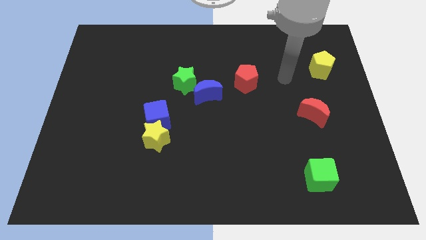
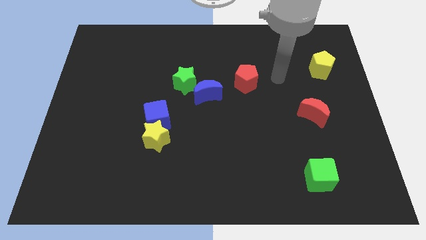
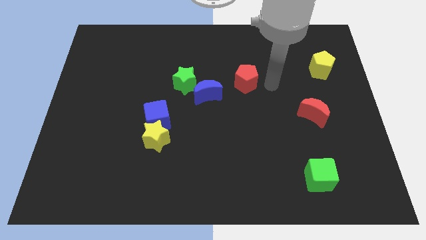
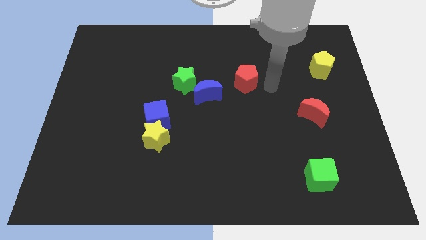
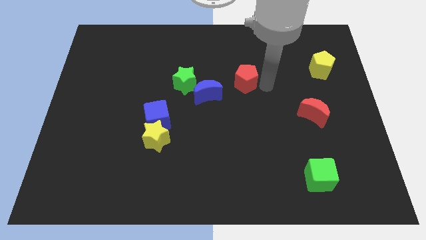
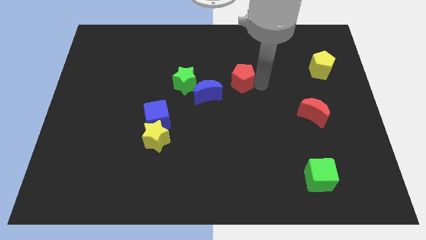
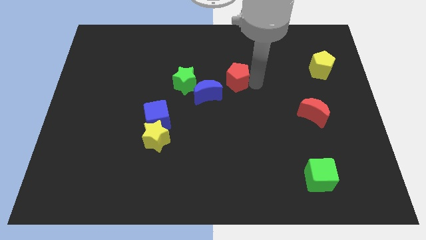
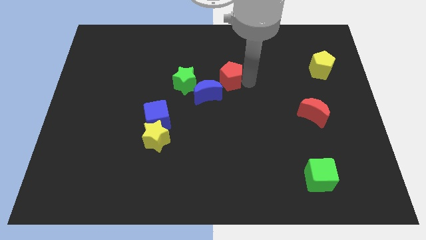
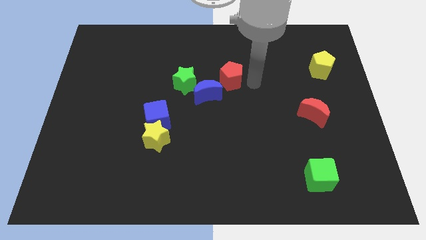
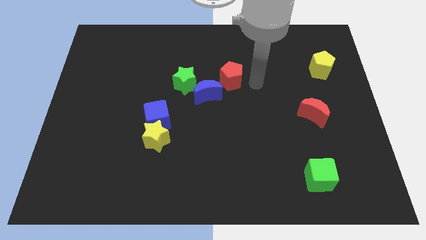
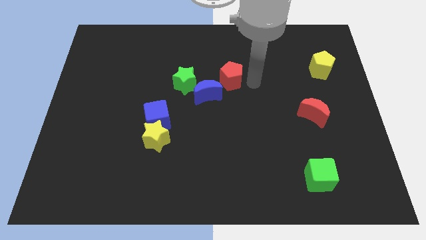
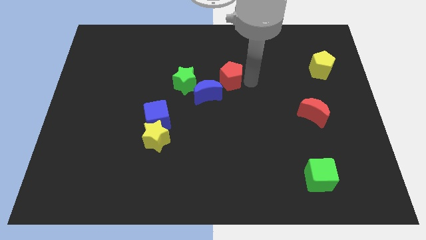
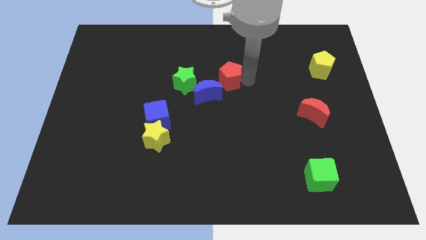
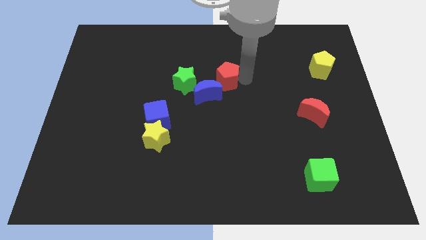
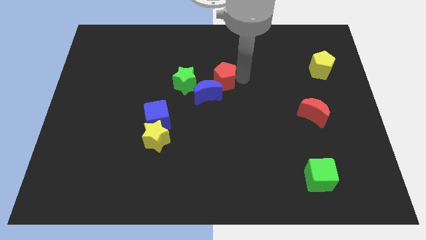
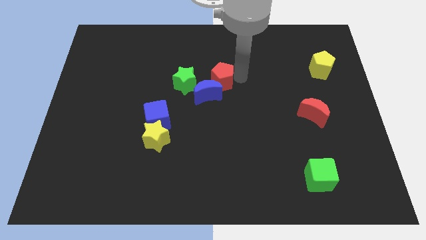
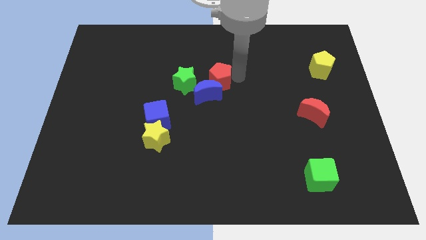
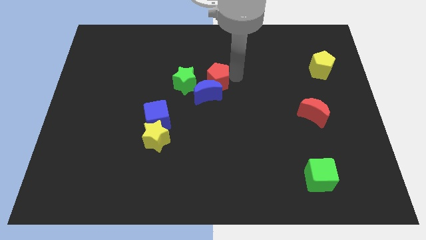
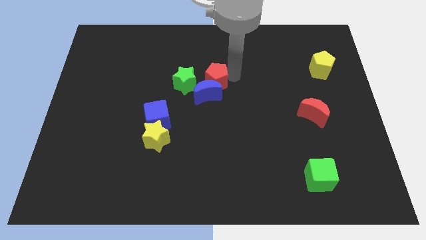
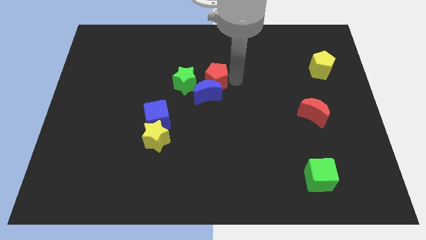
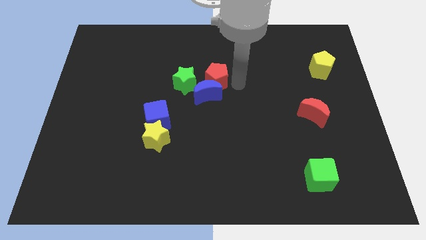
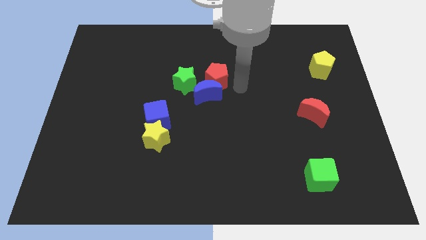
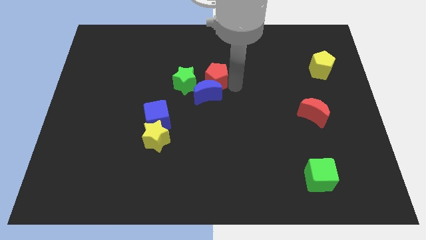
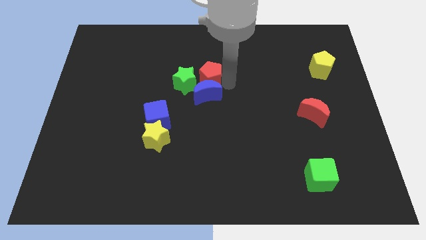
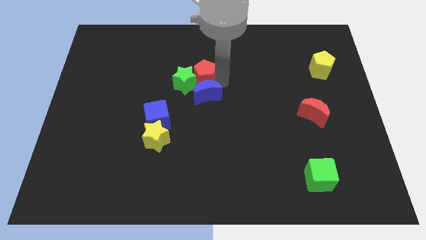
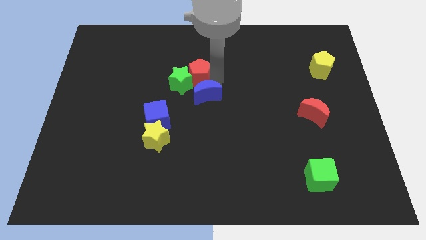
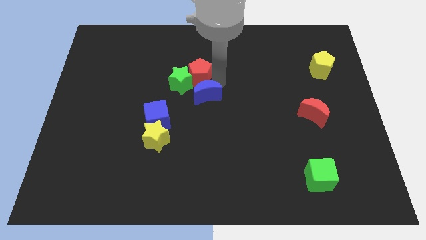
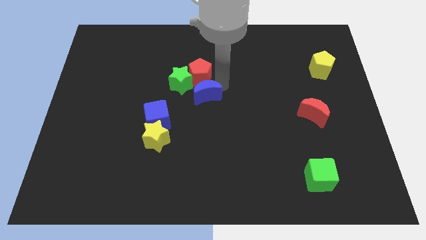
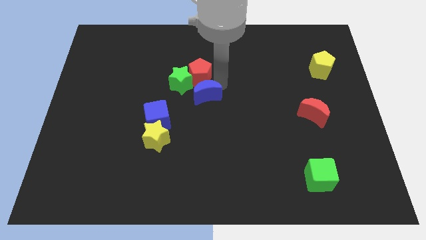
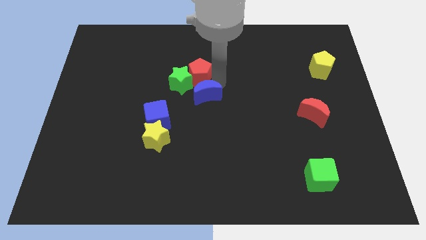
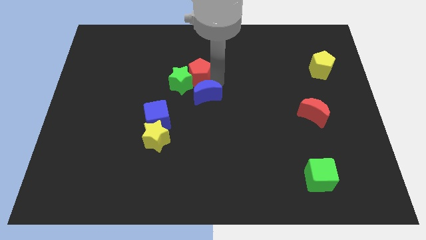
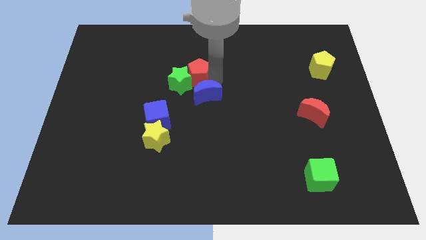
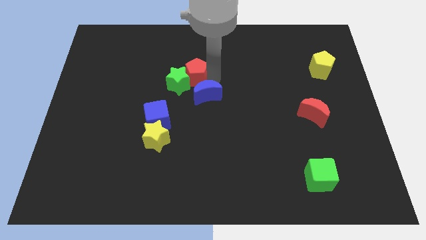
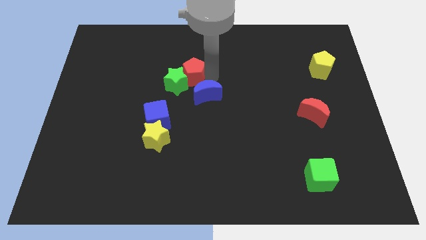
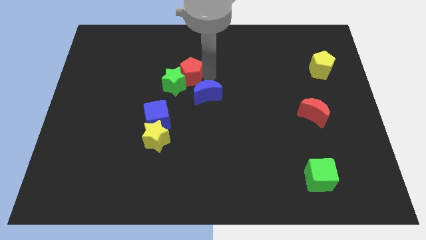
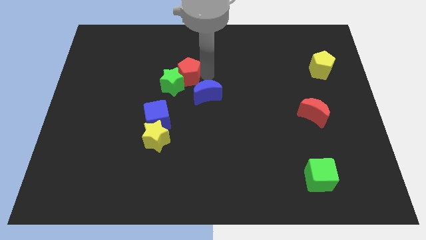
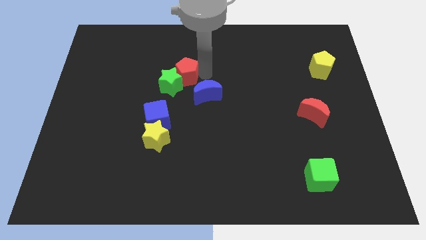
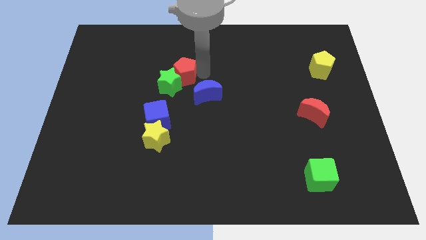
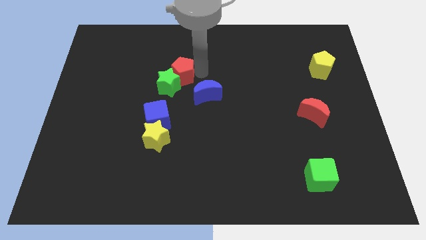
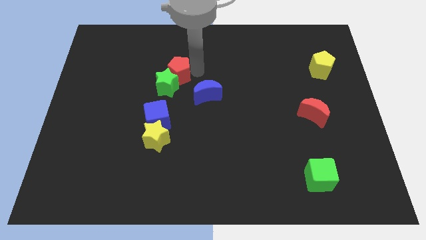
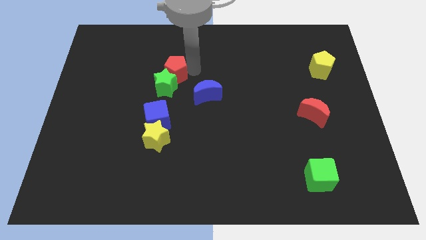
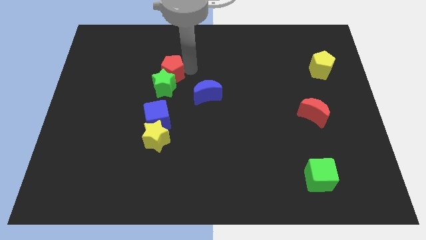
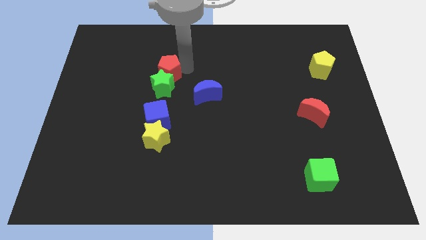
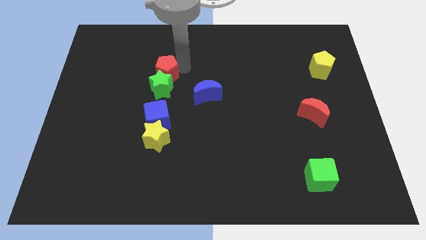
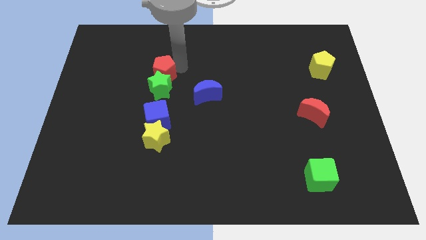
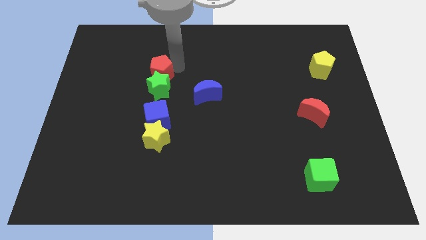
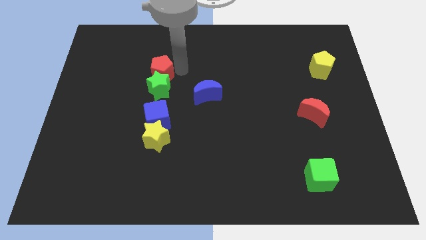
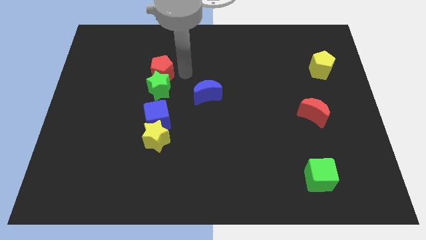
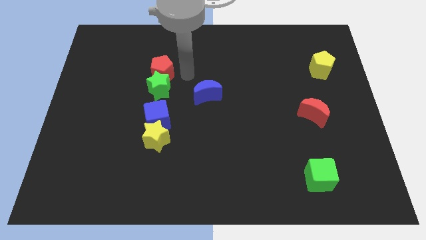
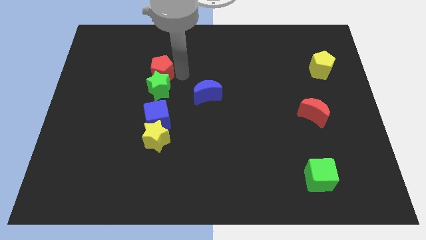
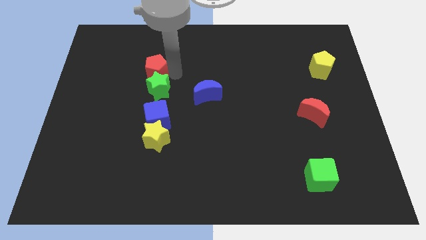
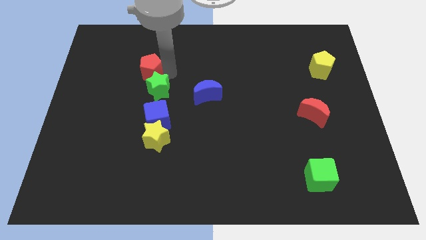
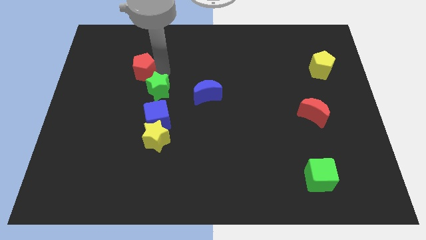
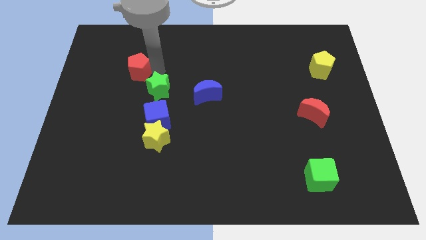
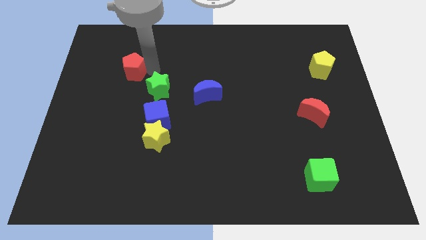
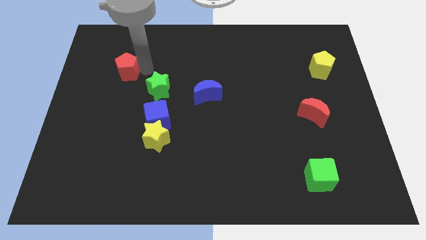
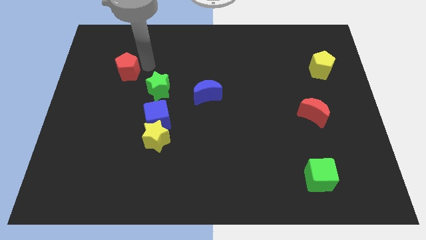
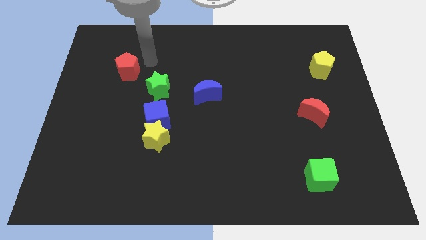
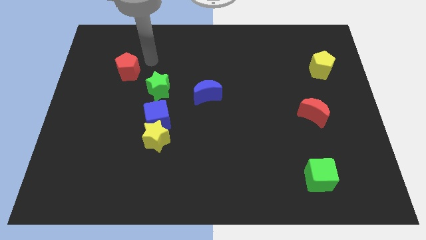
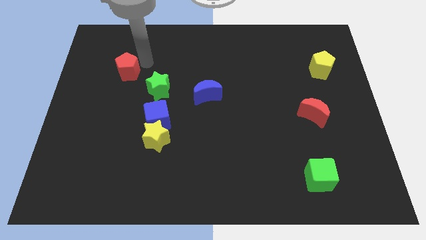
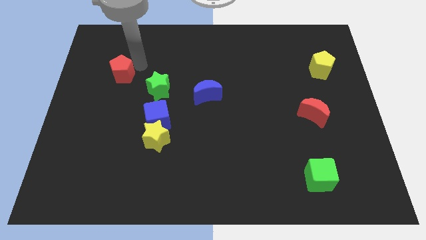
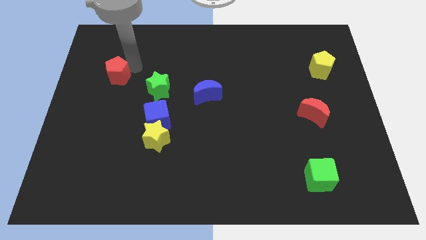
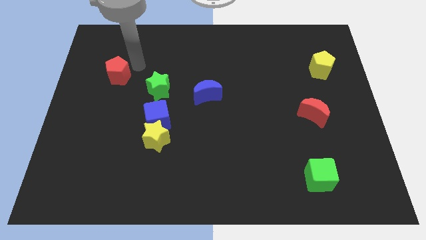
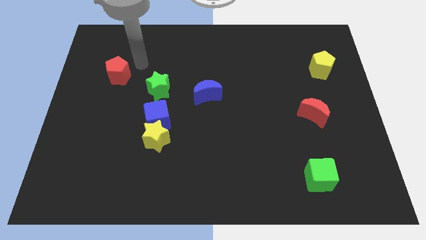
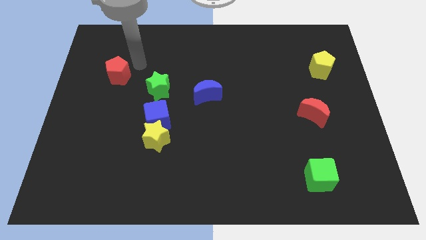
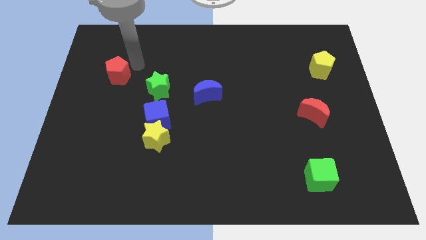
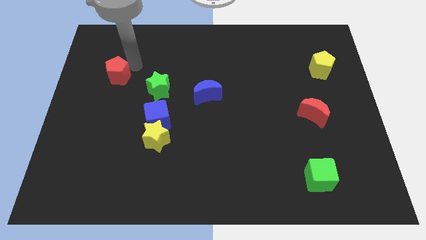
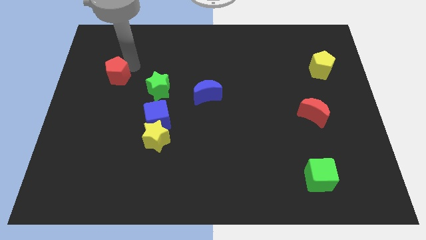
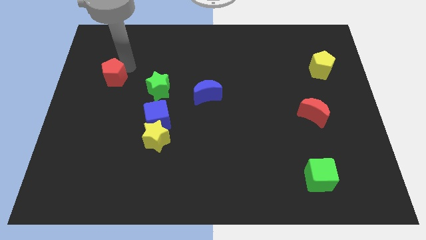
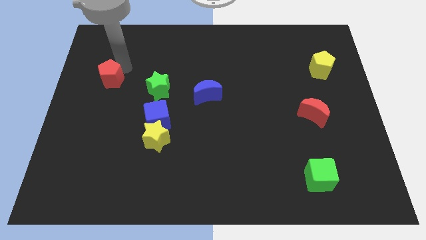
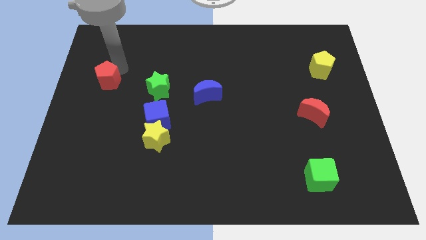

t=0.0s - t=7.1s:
slide the red pentagon to the left side
